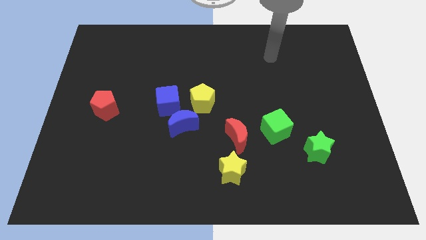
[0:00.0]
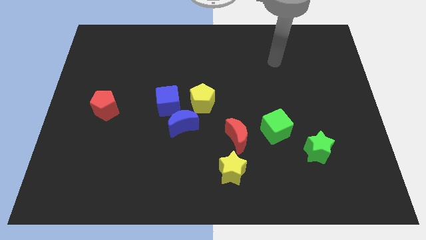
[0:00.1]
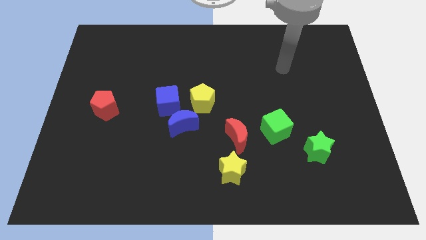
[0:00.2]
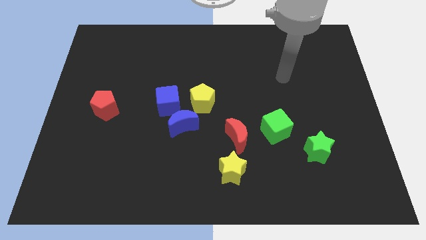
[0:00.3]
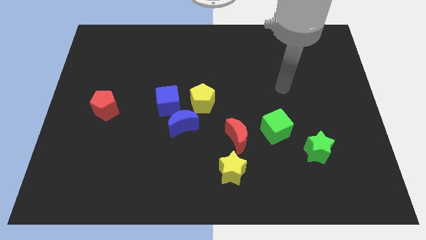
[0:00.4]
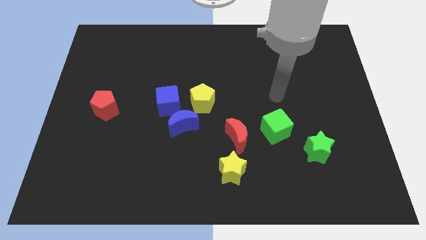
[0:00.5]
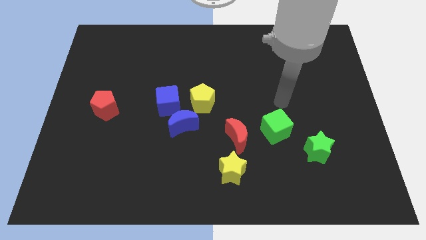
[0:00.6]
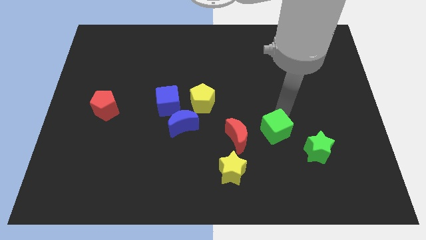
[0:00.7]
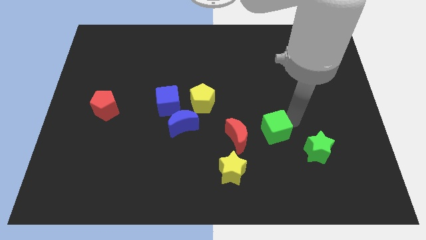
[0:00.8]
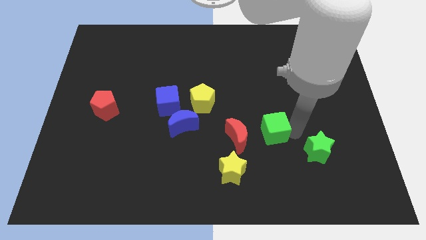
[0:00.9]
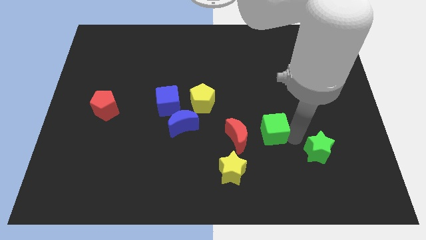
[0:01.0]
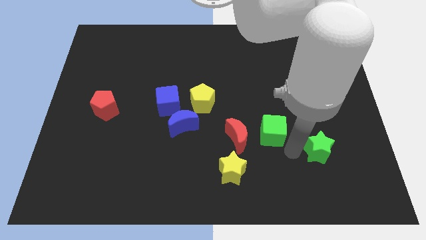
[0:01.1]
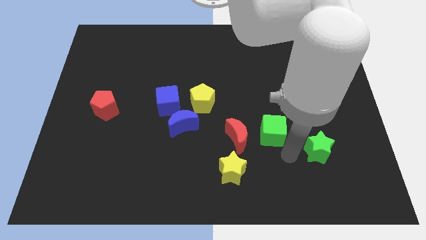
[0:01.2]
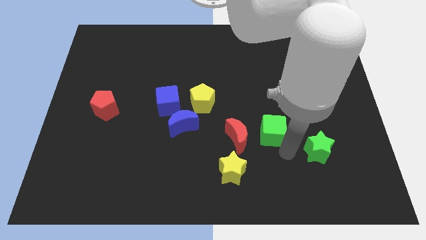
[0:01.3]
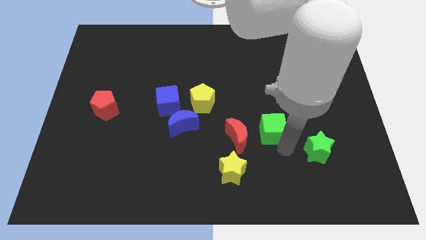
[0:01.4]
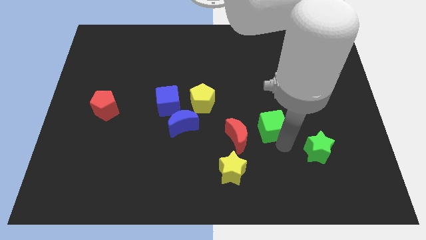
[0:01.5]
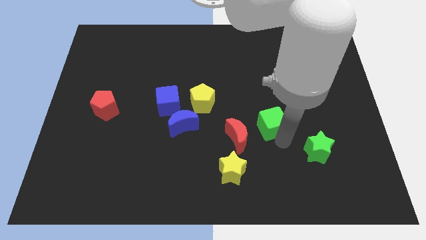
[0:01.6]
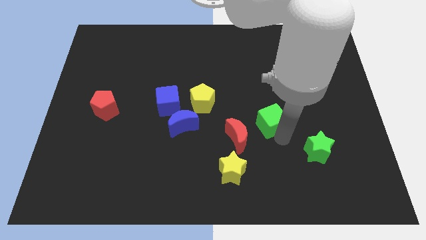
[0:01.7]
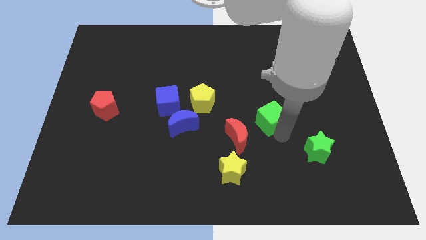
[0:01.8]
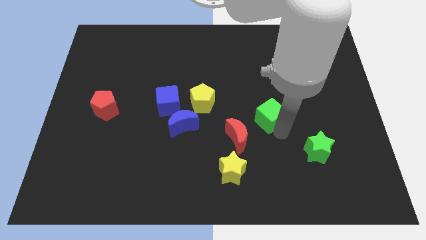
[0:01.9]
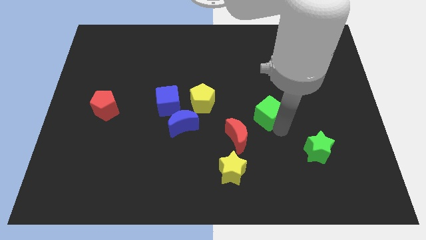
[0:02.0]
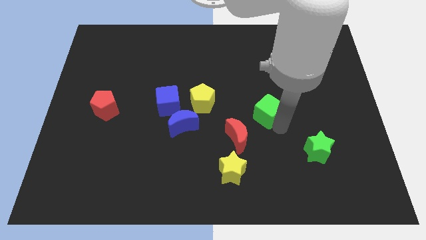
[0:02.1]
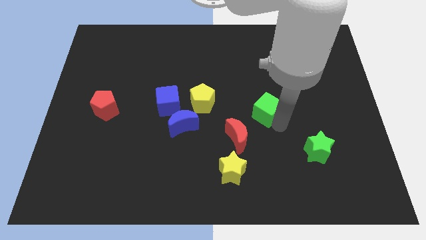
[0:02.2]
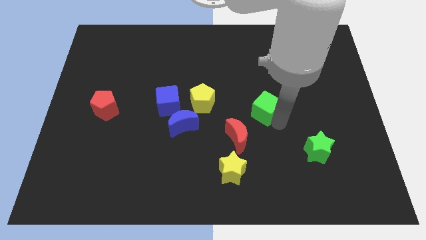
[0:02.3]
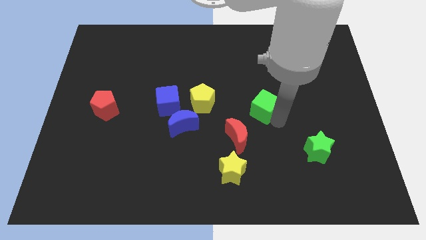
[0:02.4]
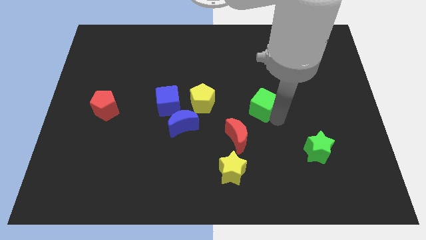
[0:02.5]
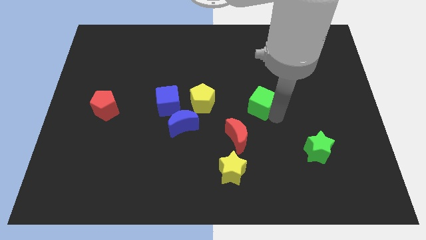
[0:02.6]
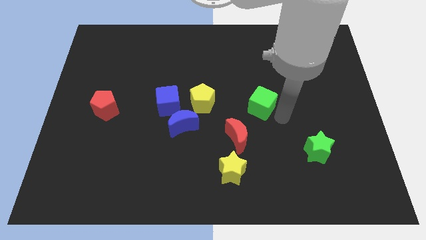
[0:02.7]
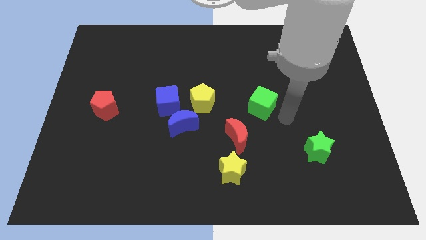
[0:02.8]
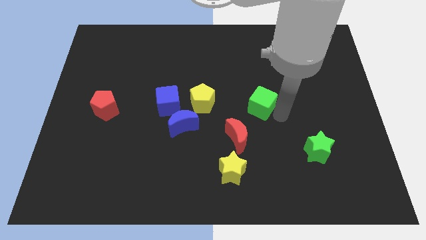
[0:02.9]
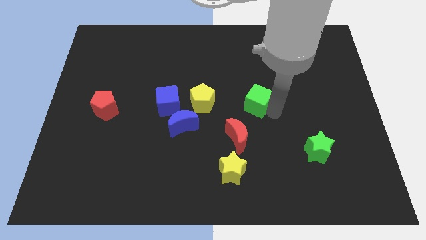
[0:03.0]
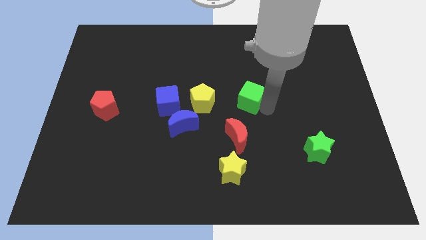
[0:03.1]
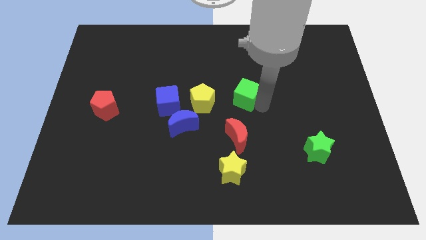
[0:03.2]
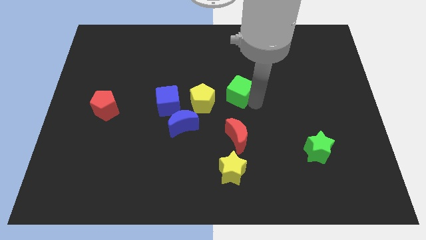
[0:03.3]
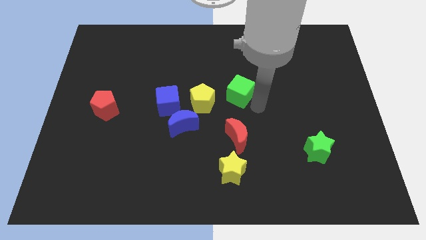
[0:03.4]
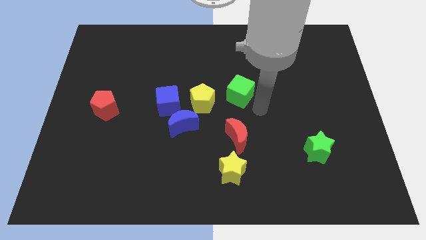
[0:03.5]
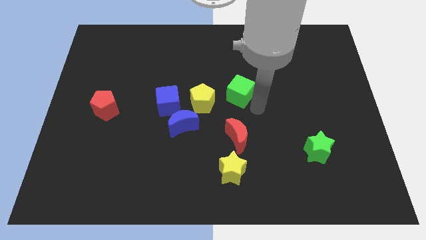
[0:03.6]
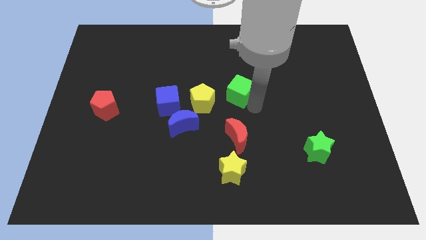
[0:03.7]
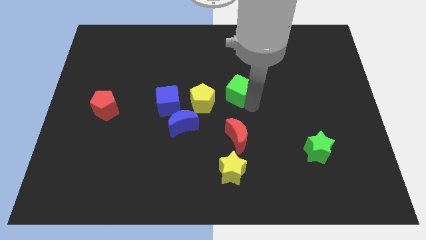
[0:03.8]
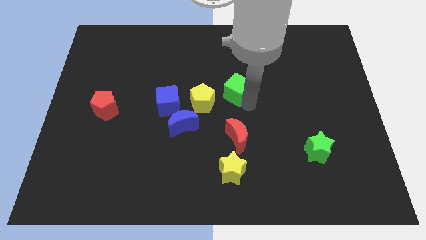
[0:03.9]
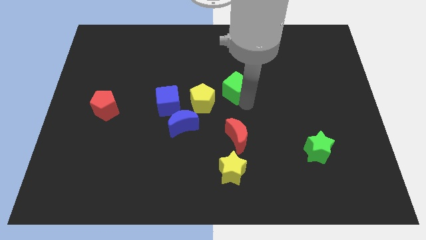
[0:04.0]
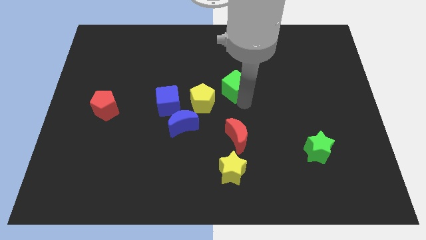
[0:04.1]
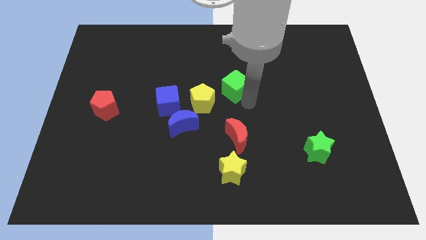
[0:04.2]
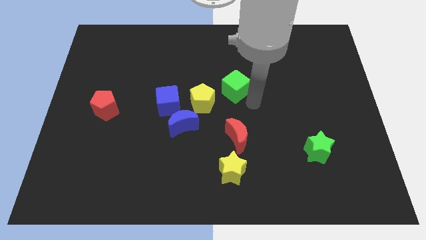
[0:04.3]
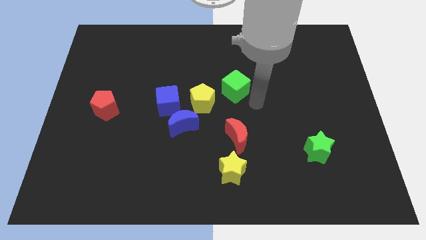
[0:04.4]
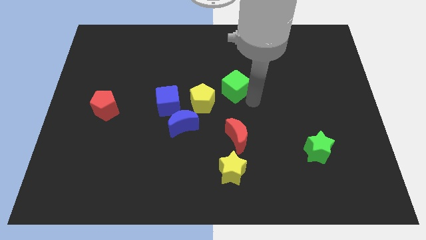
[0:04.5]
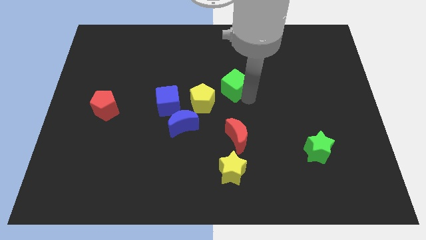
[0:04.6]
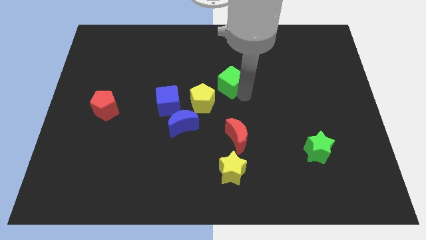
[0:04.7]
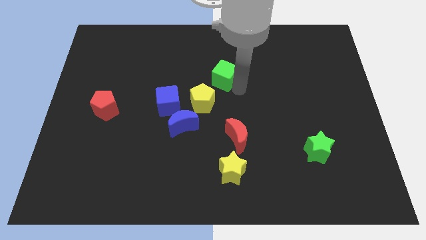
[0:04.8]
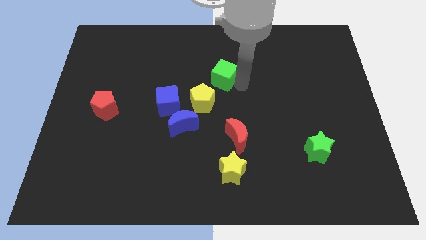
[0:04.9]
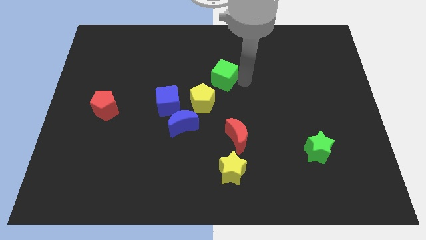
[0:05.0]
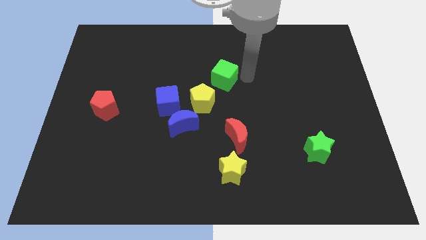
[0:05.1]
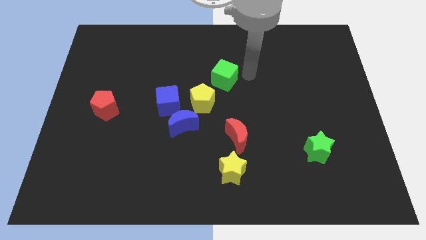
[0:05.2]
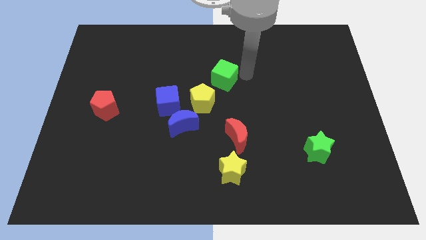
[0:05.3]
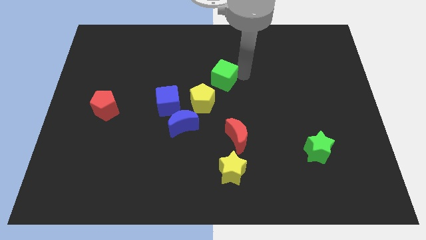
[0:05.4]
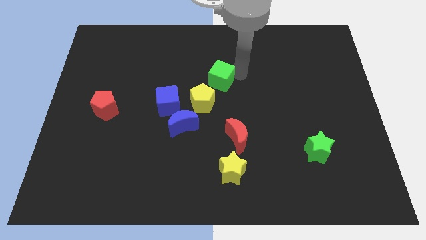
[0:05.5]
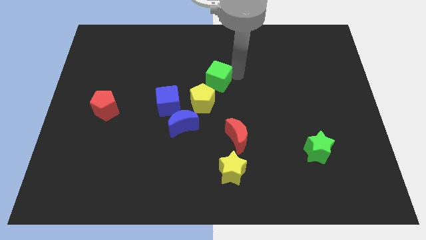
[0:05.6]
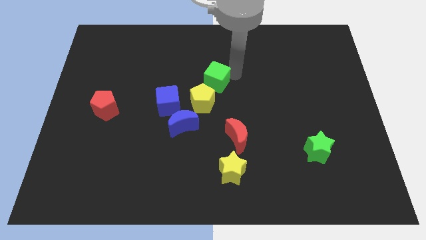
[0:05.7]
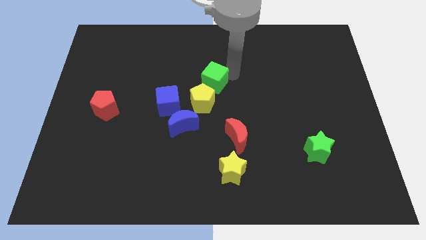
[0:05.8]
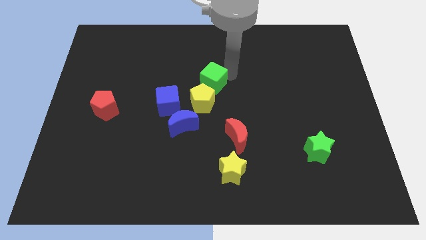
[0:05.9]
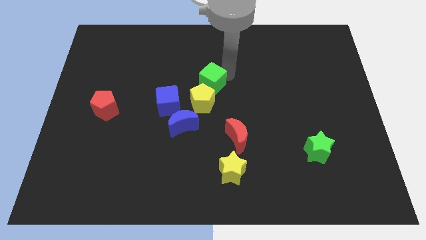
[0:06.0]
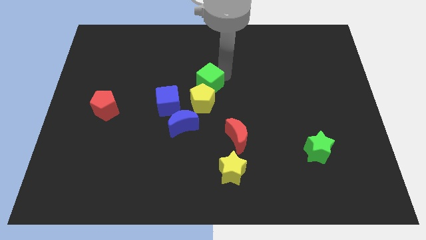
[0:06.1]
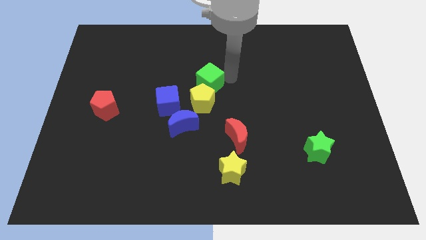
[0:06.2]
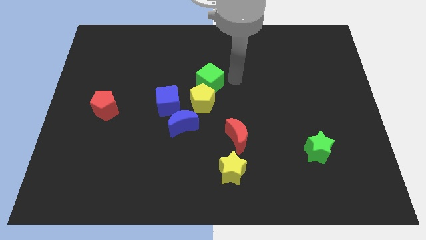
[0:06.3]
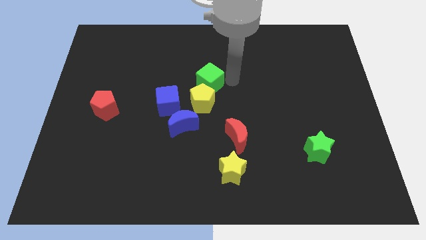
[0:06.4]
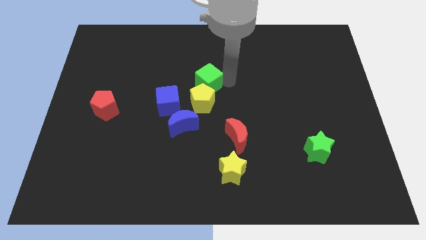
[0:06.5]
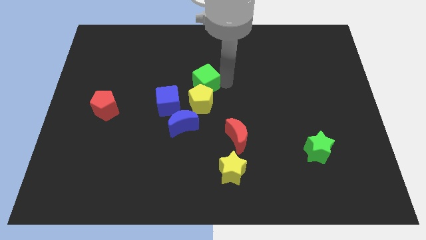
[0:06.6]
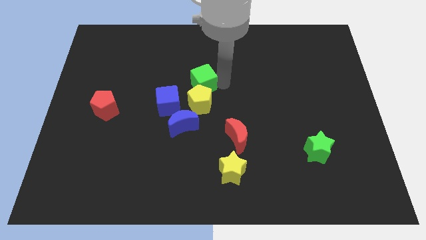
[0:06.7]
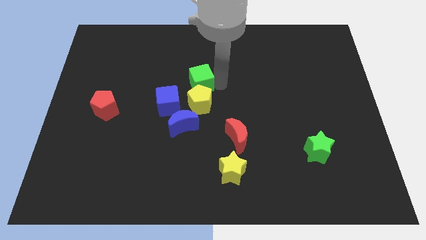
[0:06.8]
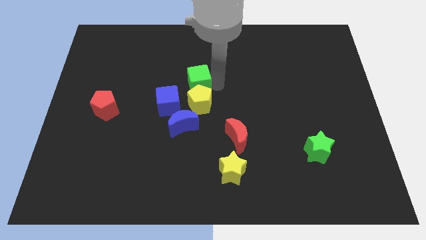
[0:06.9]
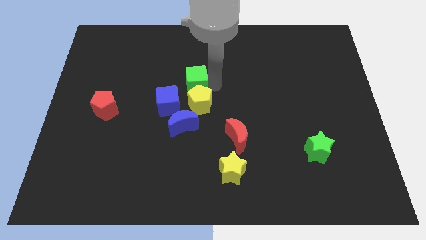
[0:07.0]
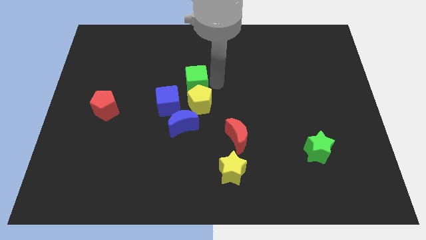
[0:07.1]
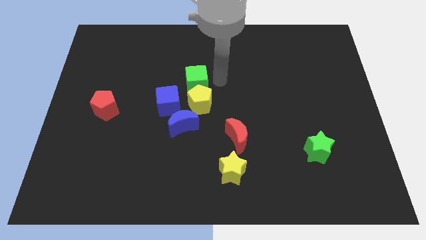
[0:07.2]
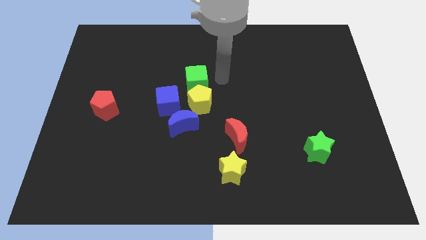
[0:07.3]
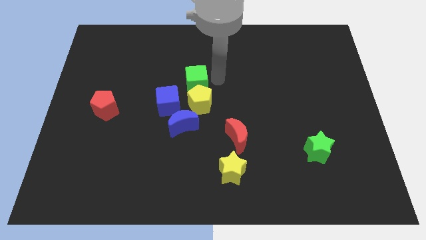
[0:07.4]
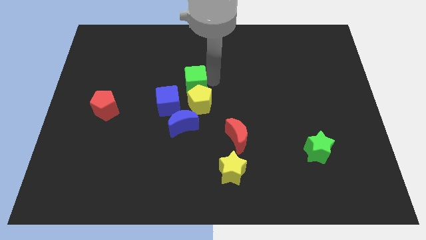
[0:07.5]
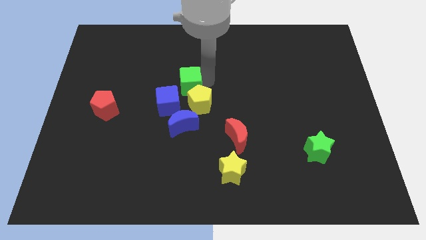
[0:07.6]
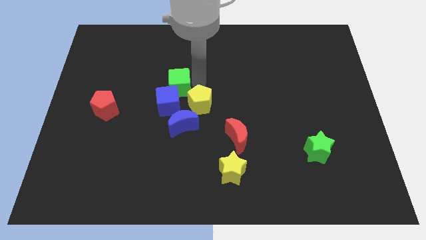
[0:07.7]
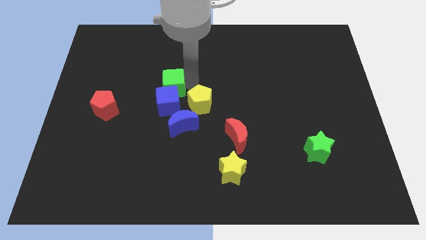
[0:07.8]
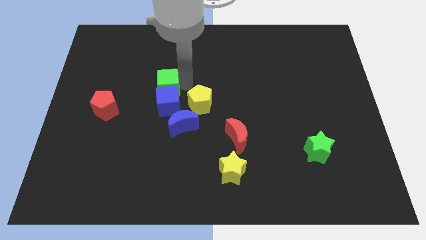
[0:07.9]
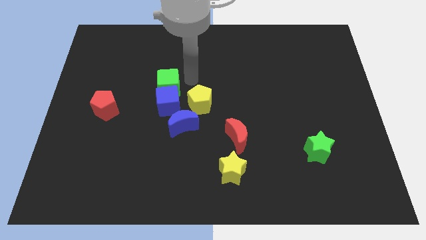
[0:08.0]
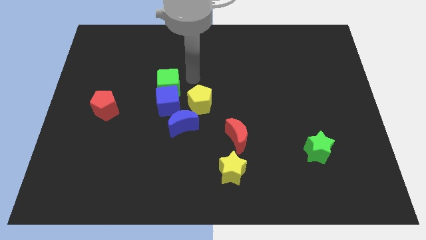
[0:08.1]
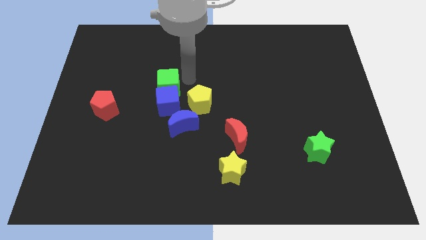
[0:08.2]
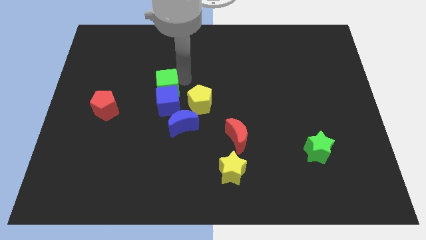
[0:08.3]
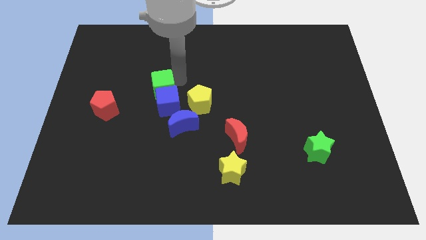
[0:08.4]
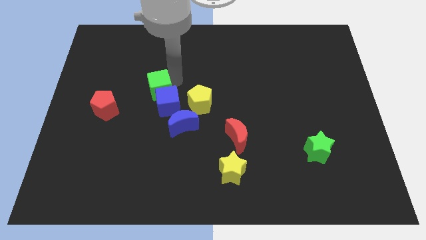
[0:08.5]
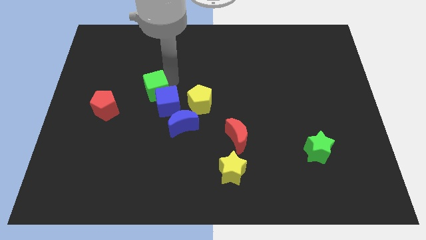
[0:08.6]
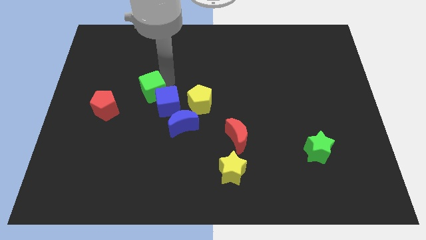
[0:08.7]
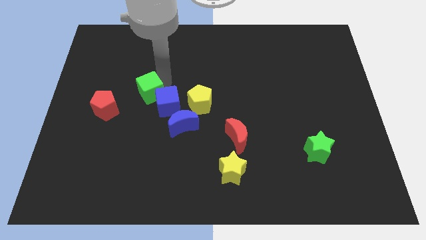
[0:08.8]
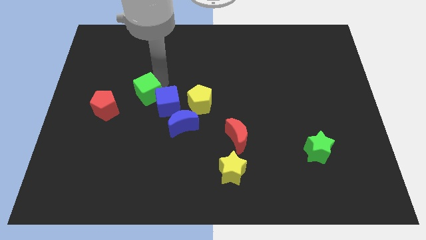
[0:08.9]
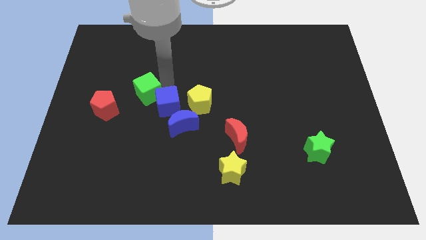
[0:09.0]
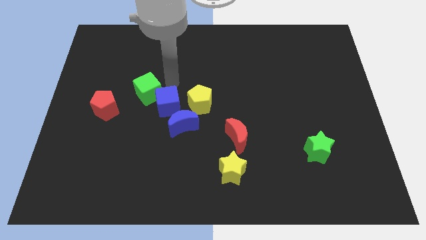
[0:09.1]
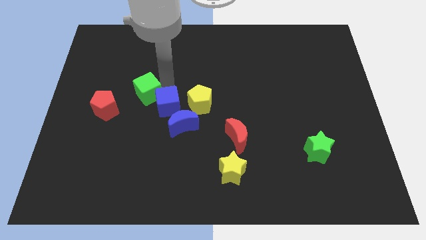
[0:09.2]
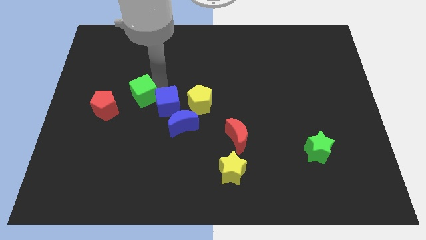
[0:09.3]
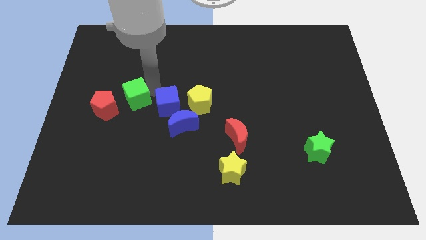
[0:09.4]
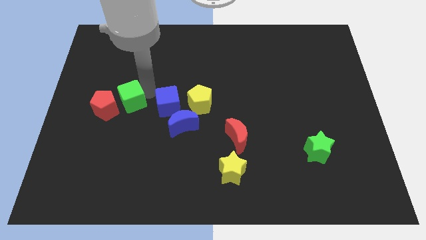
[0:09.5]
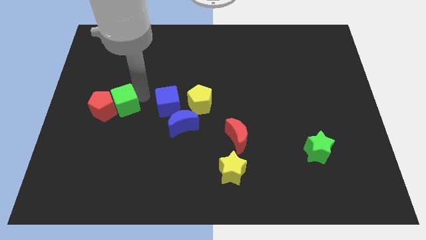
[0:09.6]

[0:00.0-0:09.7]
move the green cube towards the red pentagon
